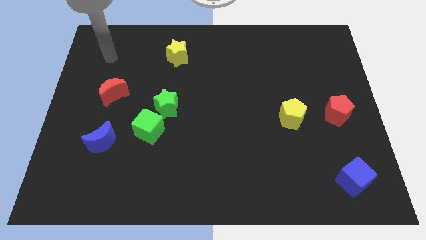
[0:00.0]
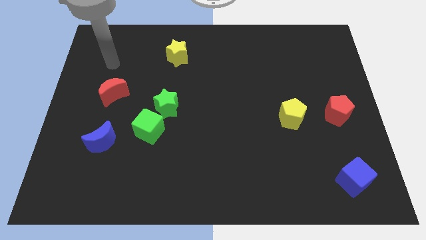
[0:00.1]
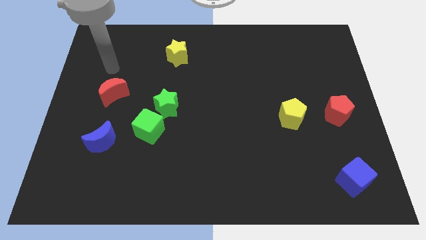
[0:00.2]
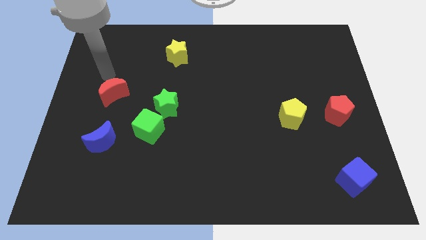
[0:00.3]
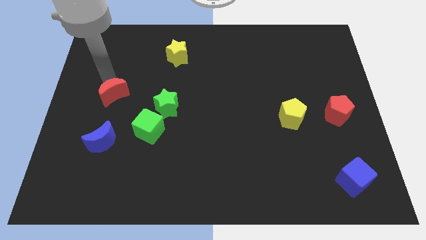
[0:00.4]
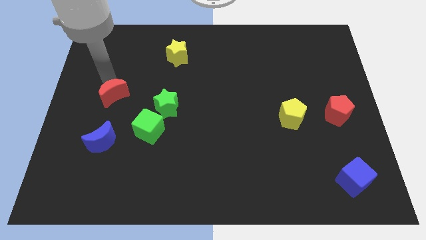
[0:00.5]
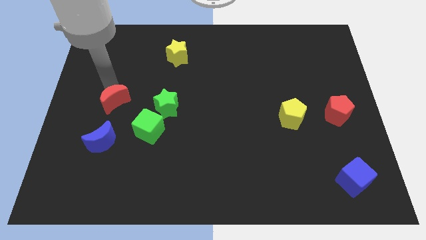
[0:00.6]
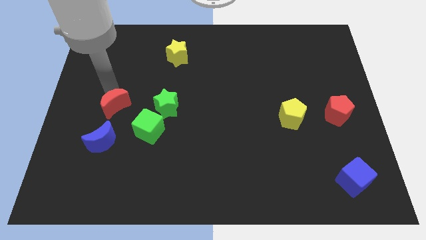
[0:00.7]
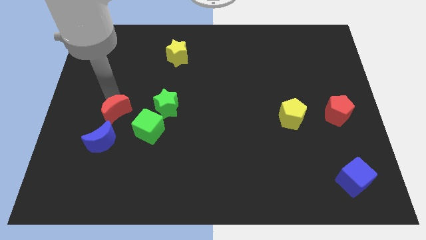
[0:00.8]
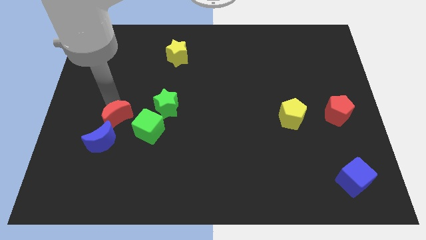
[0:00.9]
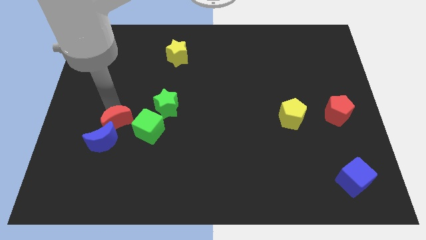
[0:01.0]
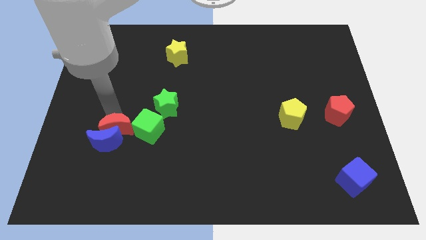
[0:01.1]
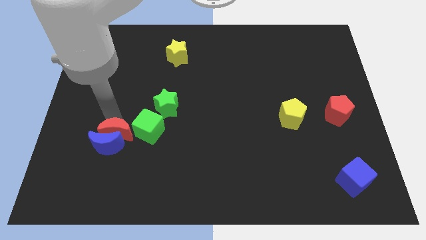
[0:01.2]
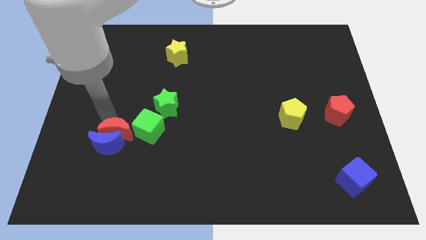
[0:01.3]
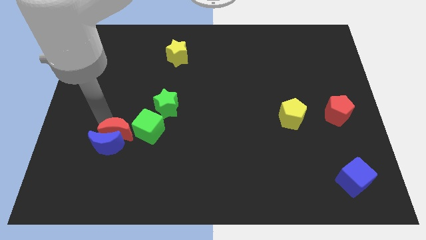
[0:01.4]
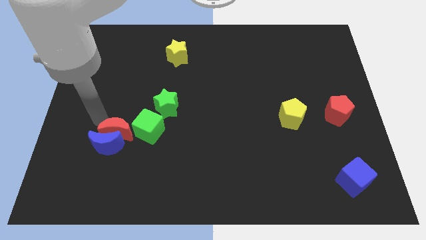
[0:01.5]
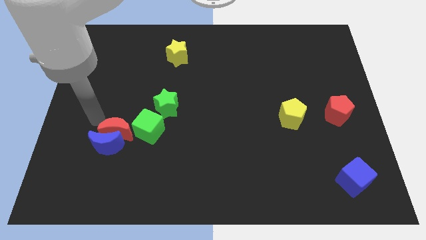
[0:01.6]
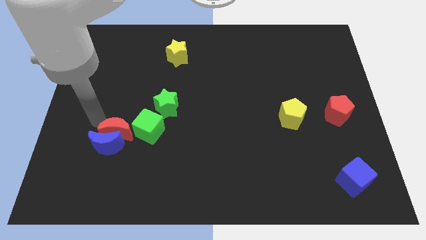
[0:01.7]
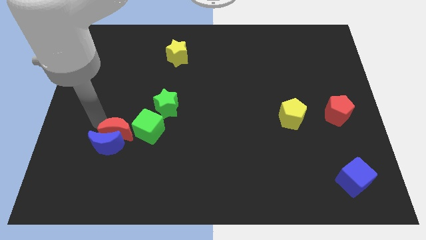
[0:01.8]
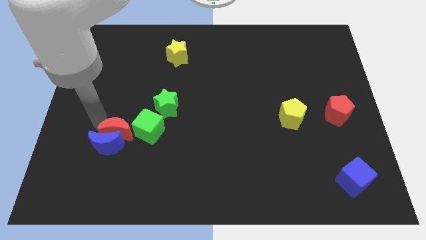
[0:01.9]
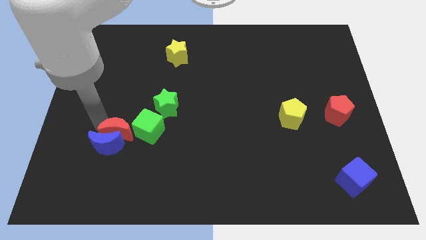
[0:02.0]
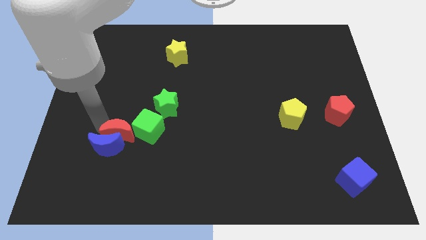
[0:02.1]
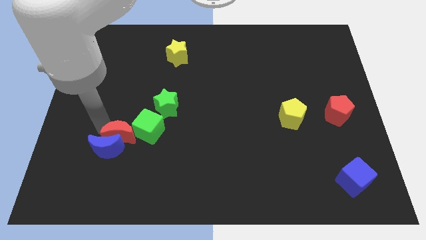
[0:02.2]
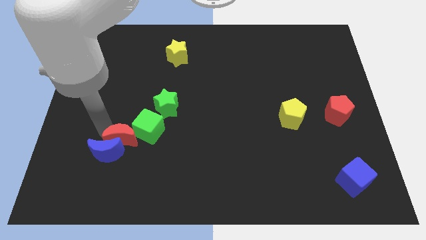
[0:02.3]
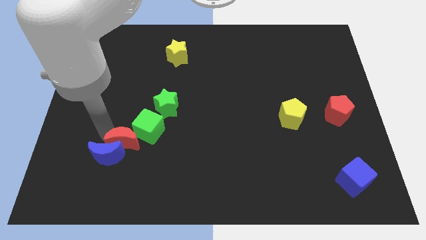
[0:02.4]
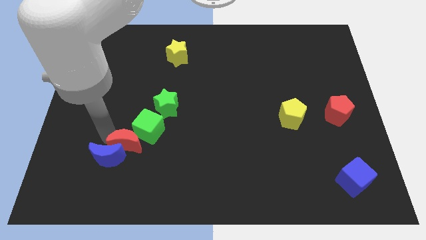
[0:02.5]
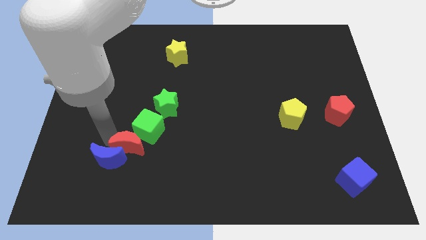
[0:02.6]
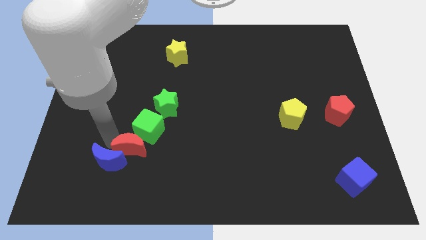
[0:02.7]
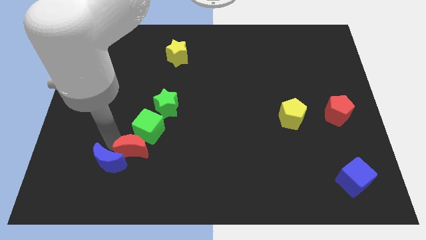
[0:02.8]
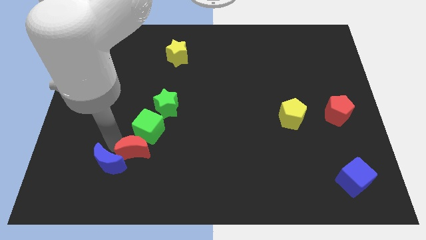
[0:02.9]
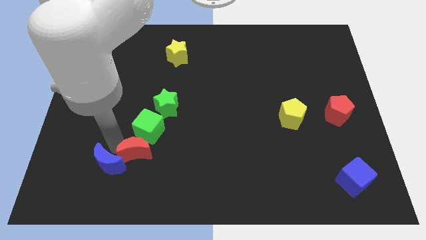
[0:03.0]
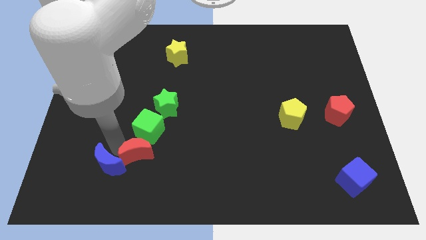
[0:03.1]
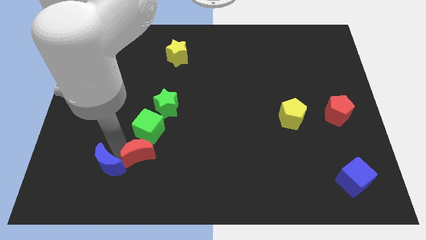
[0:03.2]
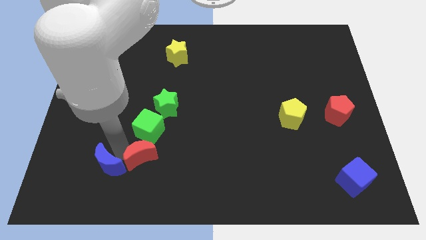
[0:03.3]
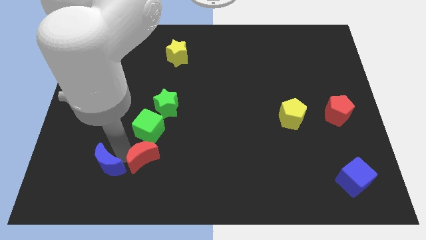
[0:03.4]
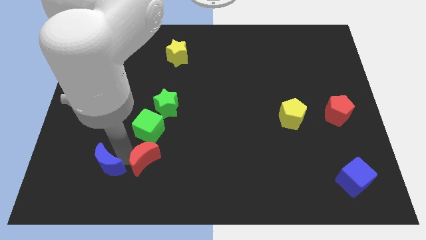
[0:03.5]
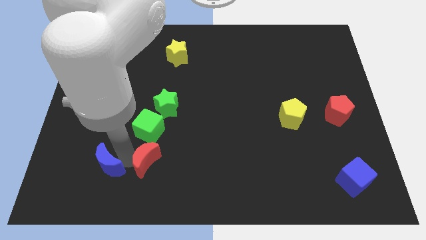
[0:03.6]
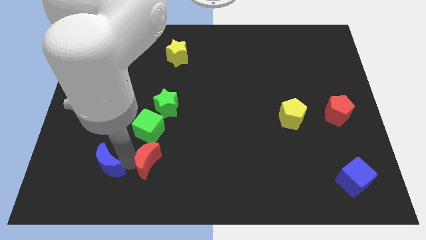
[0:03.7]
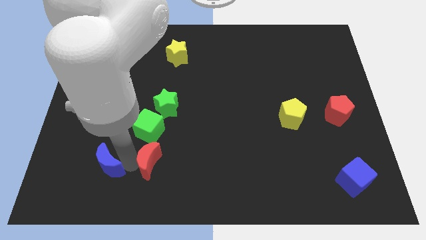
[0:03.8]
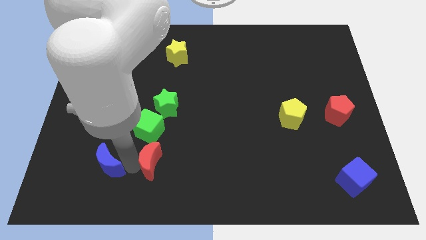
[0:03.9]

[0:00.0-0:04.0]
move the red moon downwards and to the right

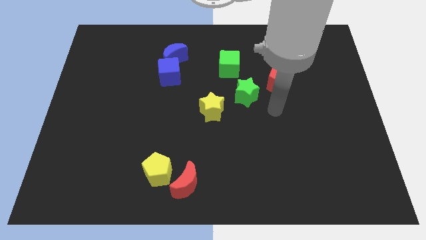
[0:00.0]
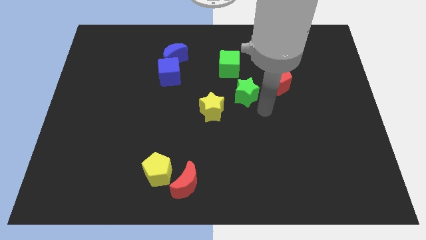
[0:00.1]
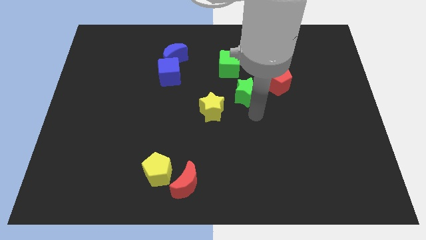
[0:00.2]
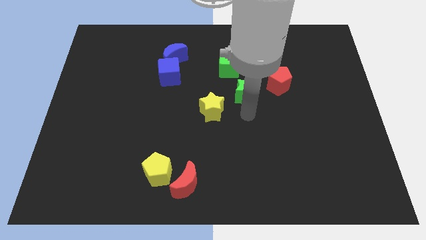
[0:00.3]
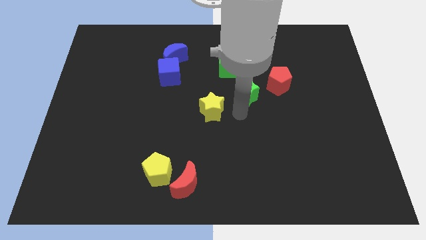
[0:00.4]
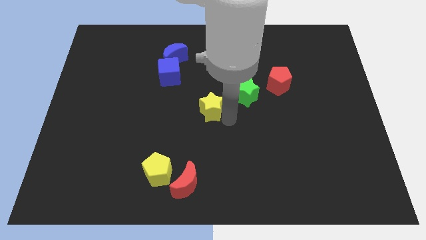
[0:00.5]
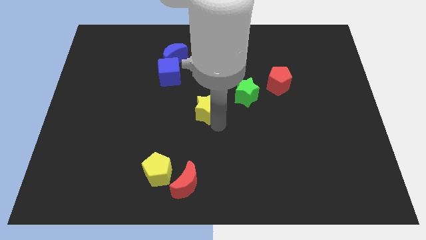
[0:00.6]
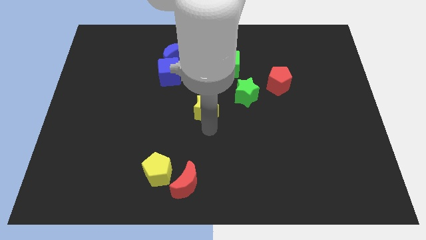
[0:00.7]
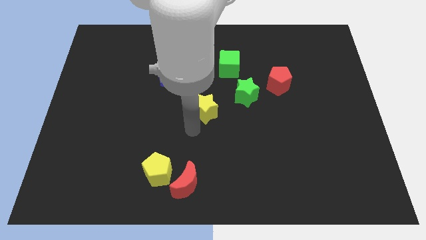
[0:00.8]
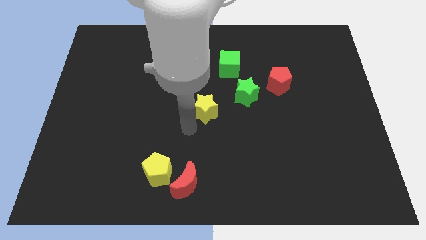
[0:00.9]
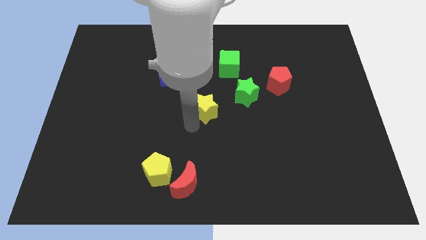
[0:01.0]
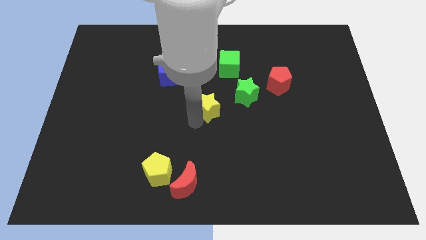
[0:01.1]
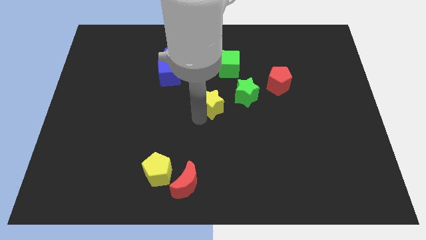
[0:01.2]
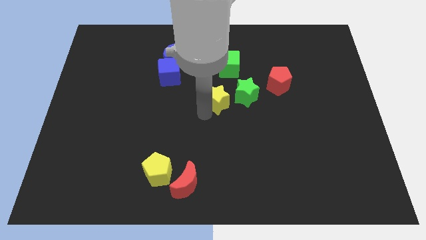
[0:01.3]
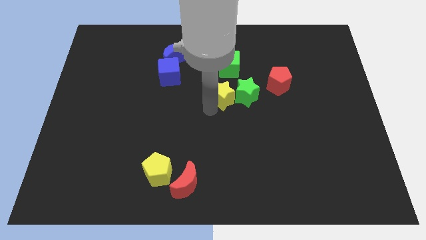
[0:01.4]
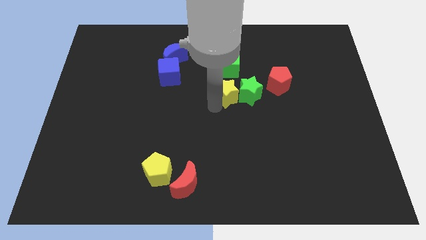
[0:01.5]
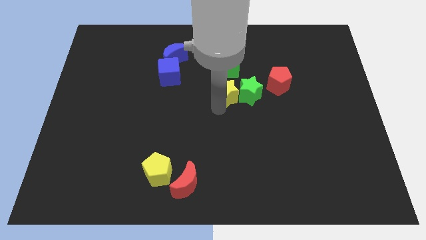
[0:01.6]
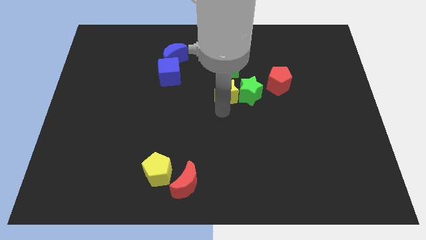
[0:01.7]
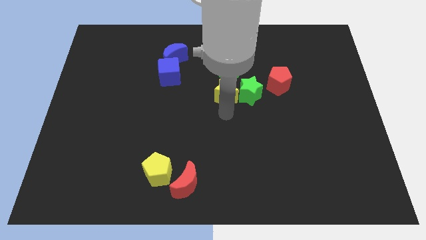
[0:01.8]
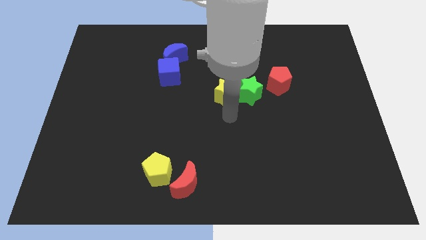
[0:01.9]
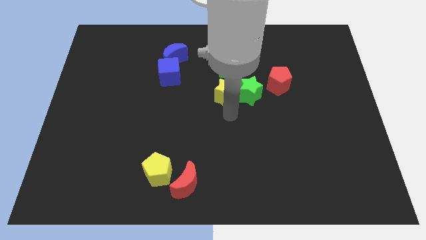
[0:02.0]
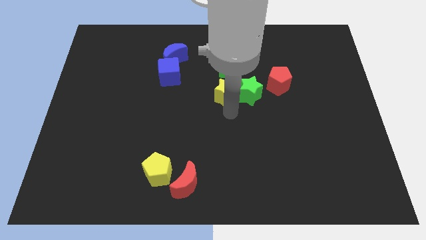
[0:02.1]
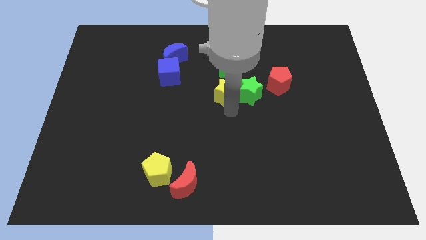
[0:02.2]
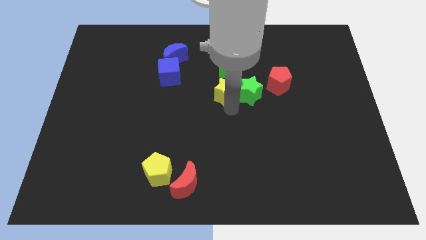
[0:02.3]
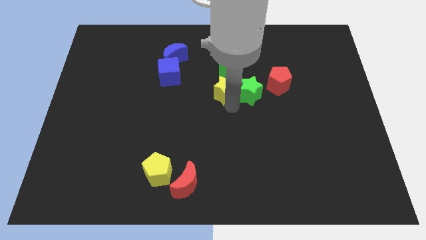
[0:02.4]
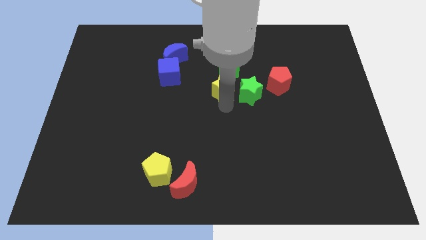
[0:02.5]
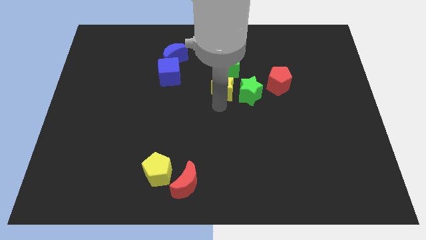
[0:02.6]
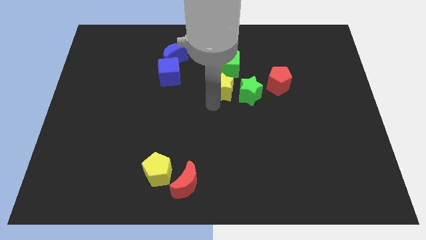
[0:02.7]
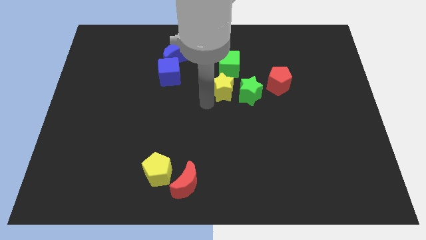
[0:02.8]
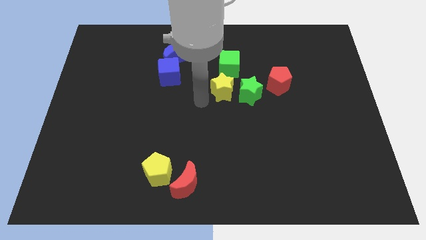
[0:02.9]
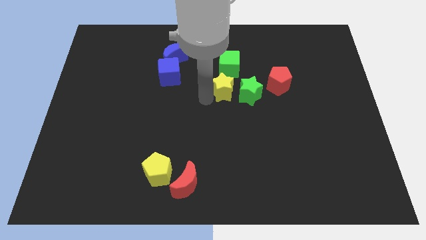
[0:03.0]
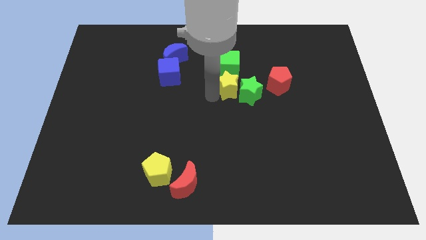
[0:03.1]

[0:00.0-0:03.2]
slightly push the yellow star diagonally up and right

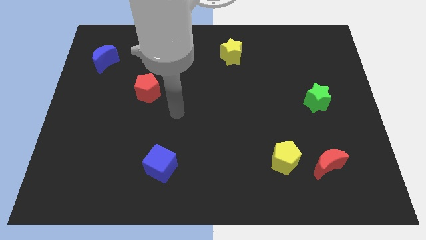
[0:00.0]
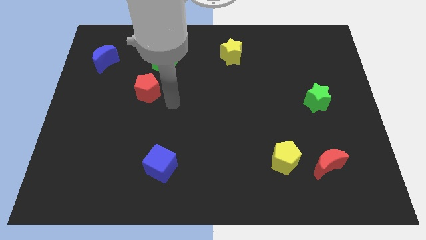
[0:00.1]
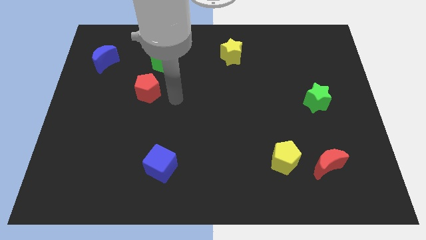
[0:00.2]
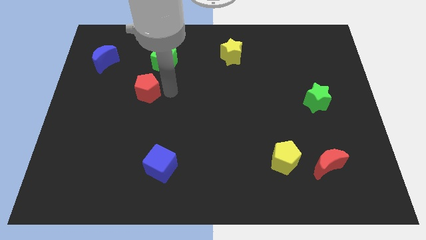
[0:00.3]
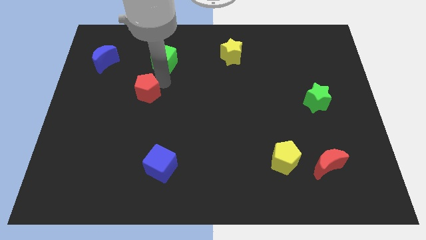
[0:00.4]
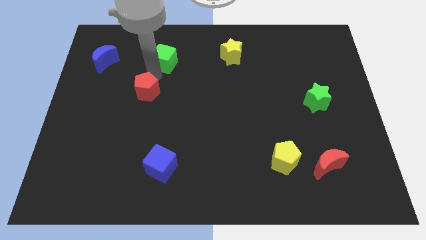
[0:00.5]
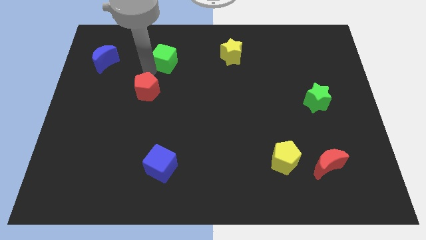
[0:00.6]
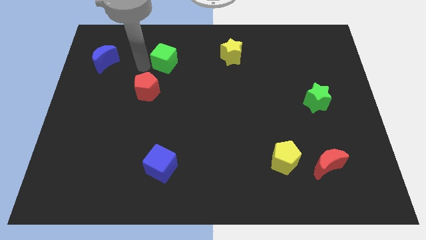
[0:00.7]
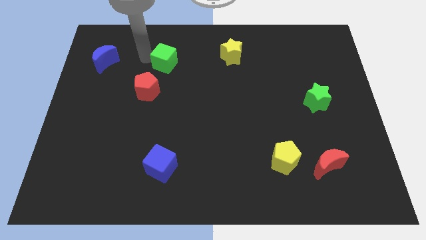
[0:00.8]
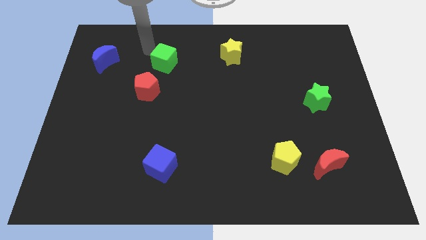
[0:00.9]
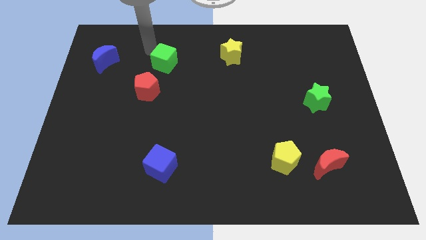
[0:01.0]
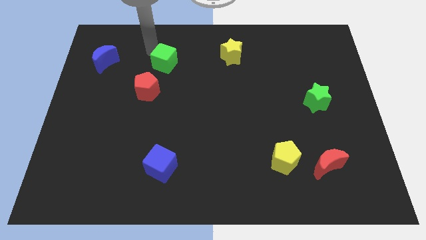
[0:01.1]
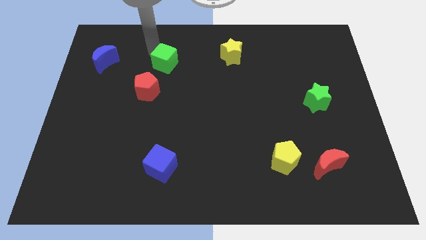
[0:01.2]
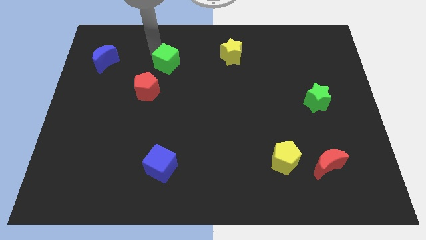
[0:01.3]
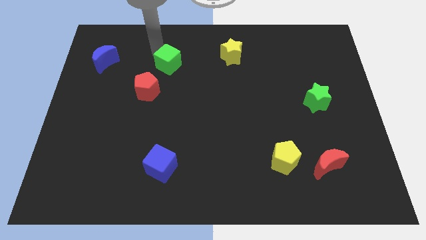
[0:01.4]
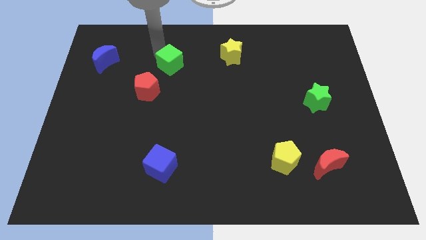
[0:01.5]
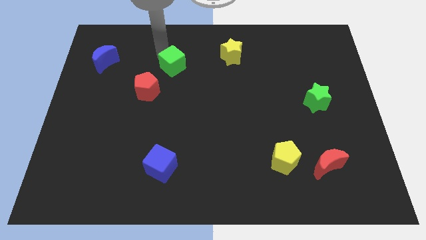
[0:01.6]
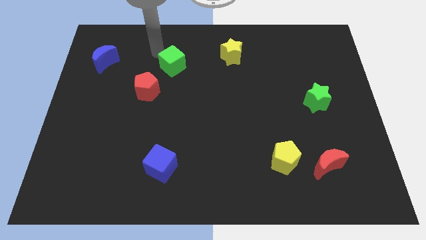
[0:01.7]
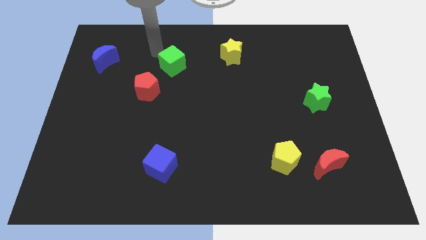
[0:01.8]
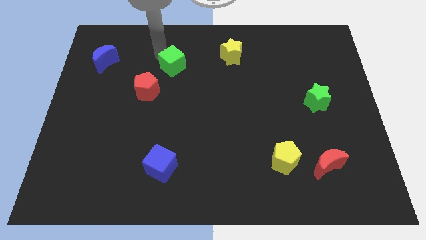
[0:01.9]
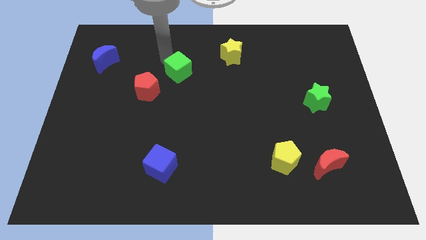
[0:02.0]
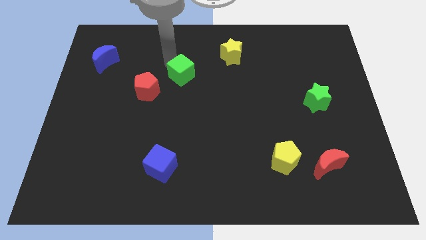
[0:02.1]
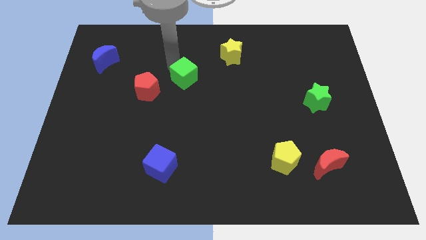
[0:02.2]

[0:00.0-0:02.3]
slightly move the green cube downwards and to the right diagonally
